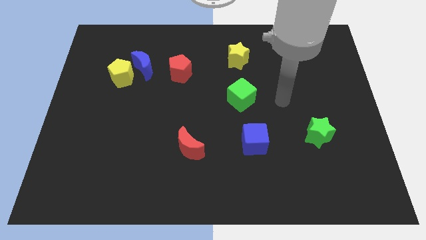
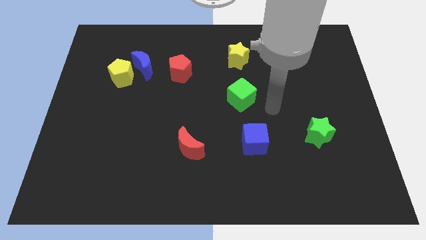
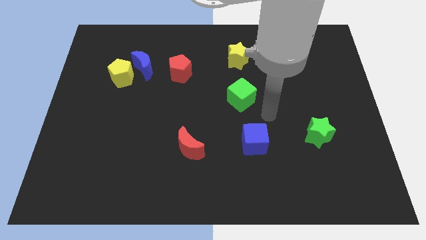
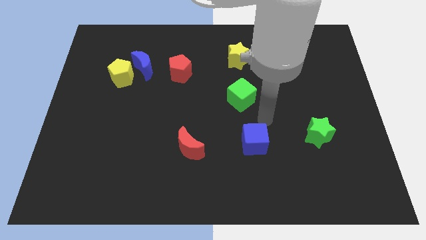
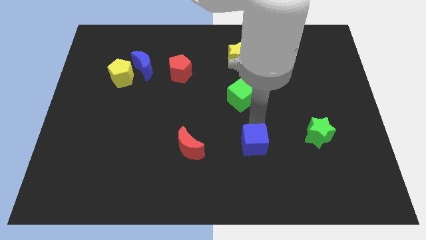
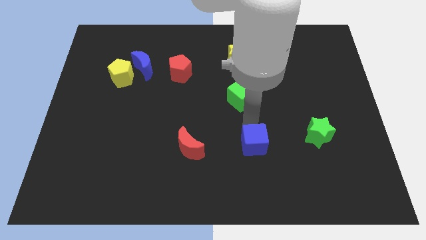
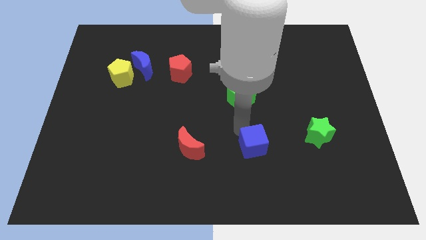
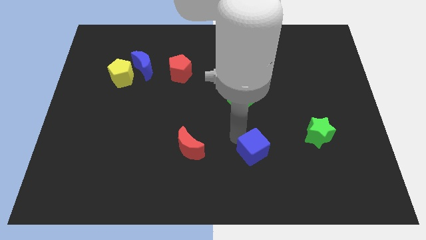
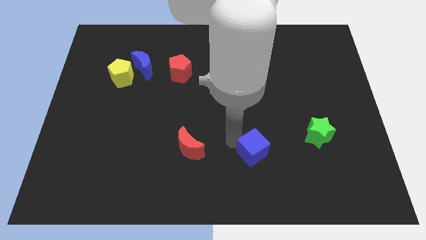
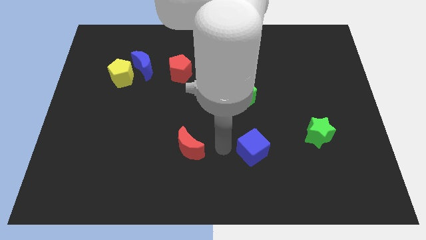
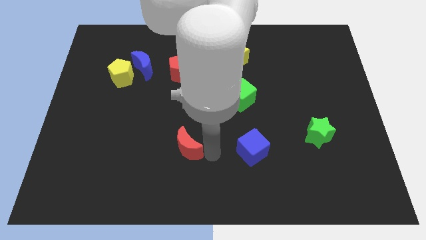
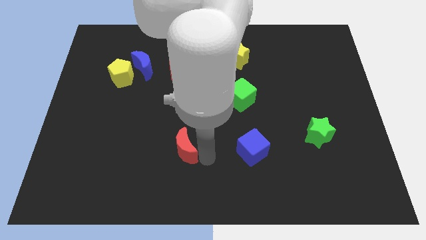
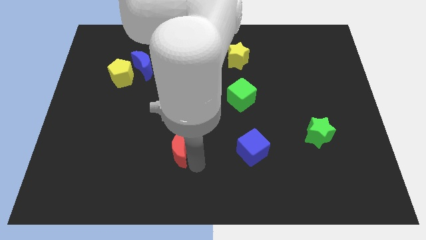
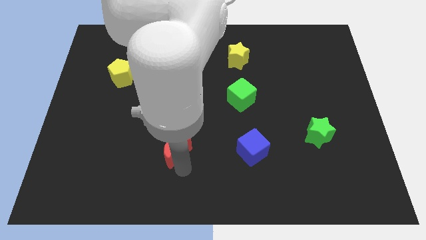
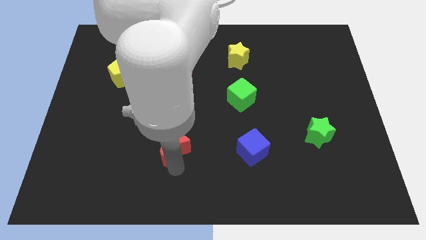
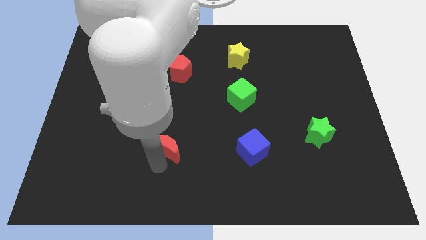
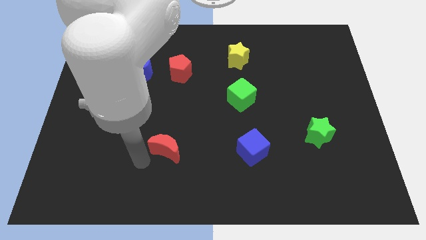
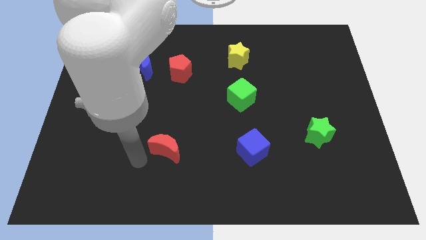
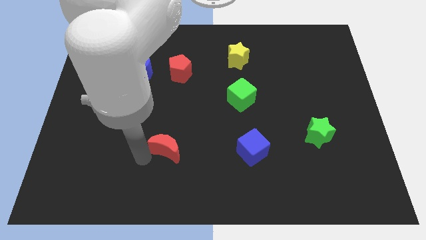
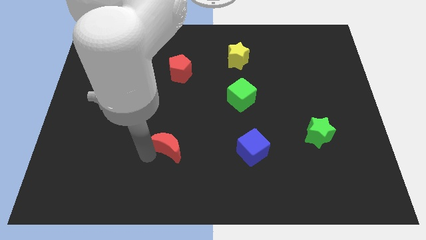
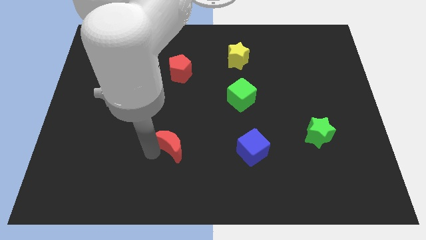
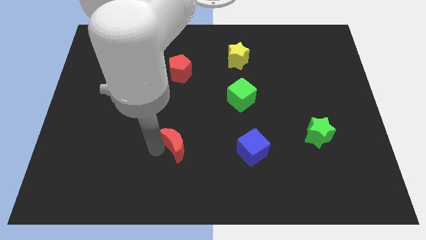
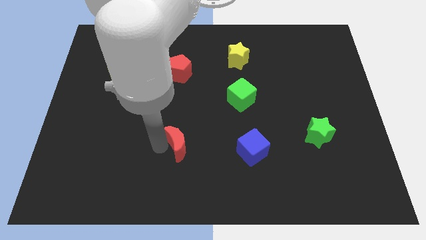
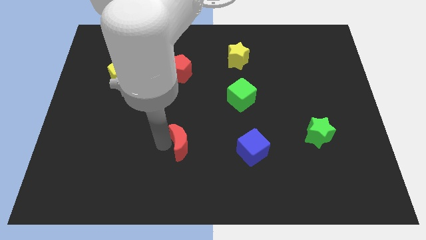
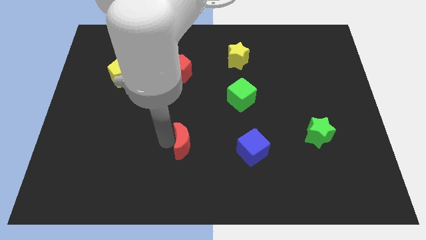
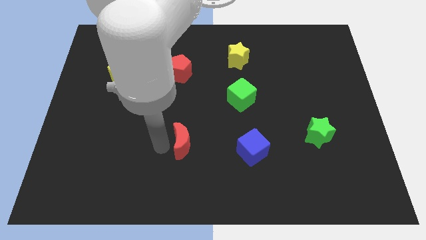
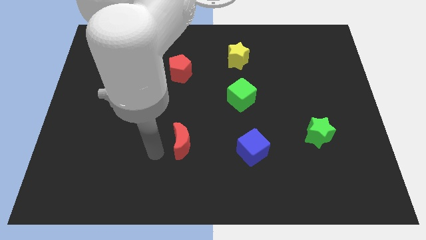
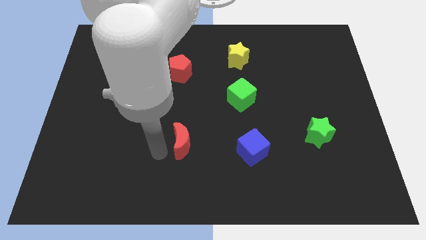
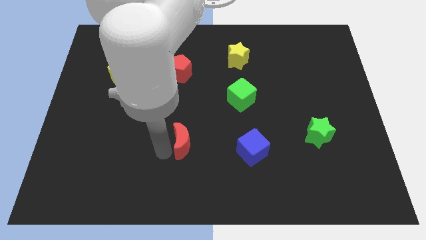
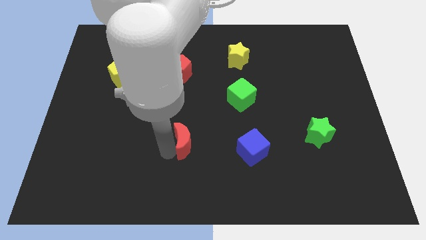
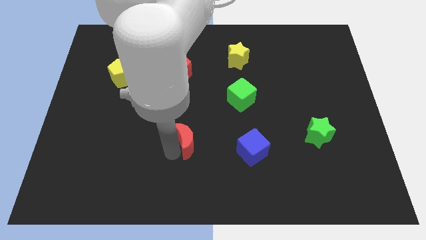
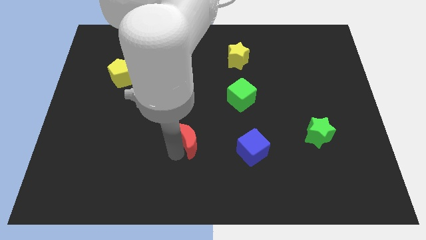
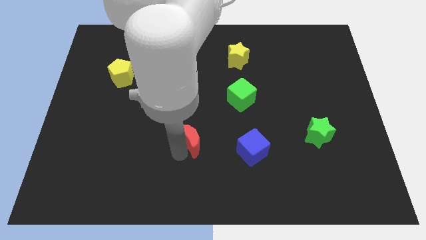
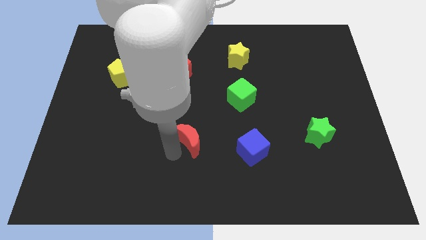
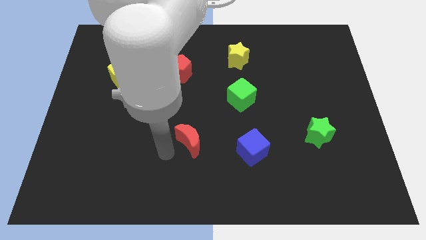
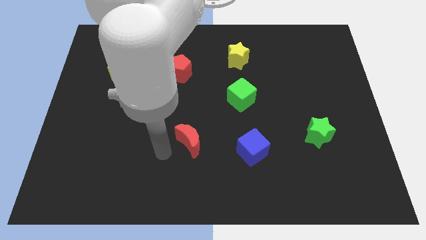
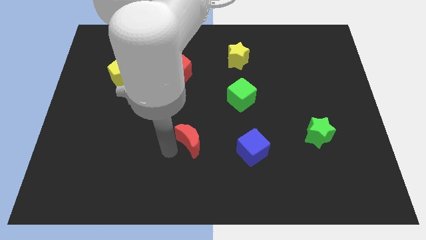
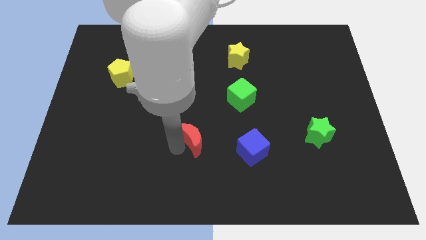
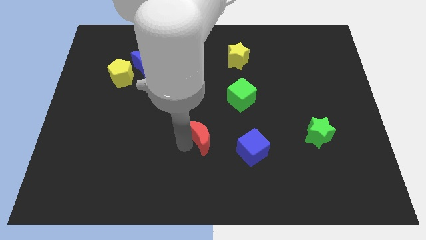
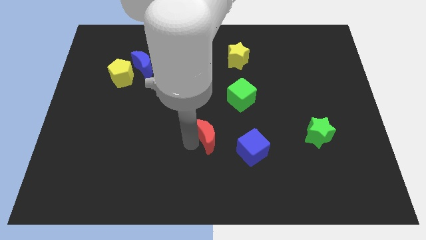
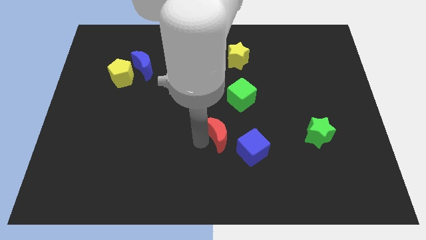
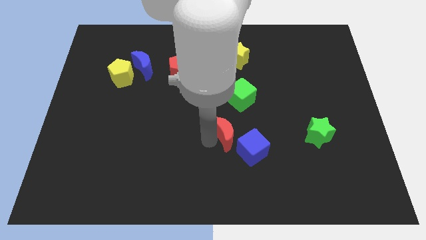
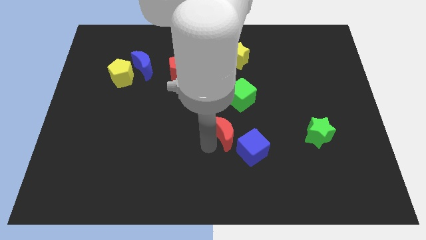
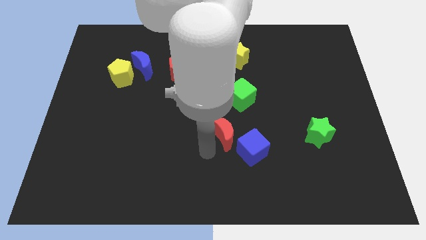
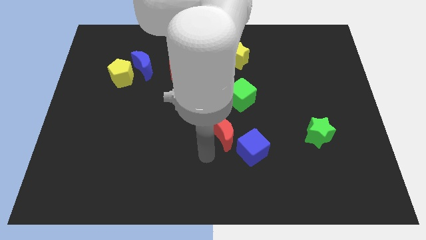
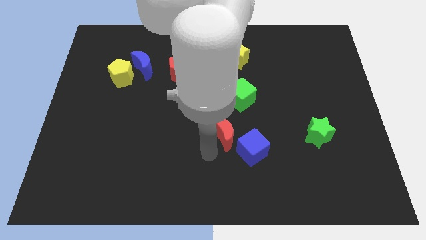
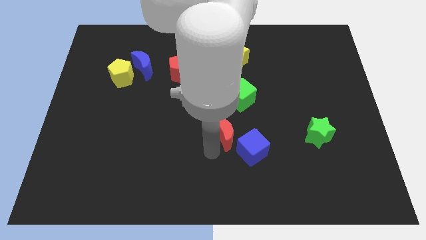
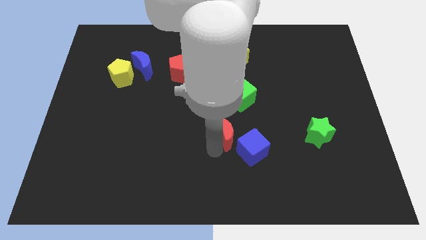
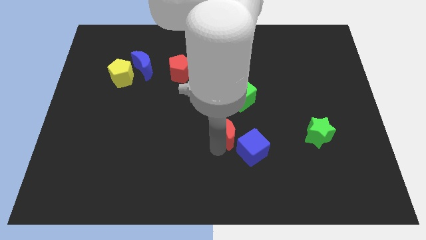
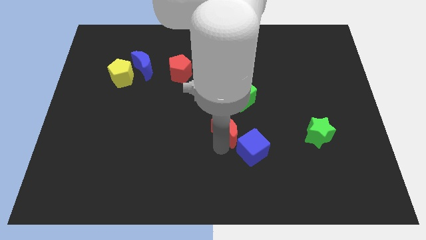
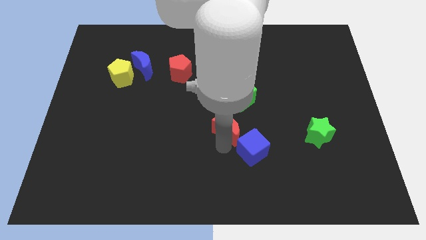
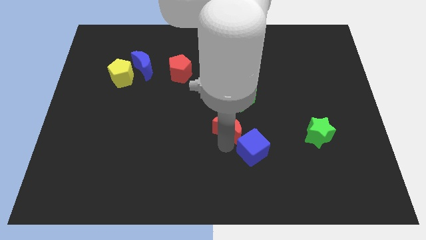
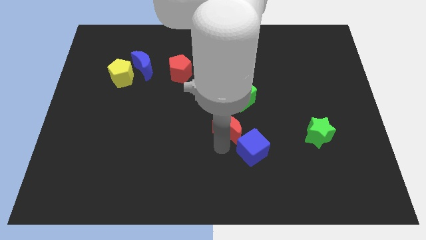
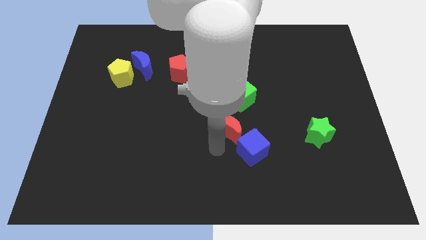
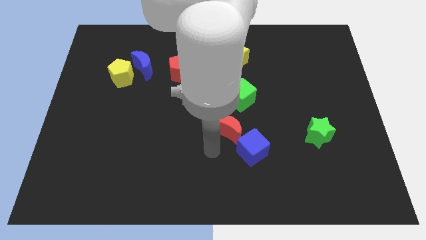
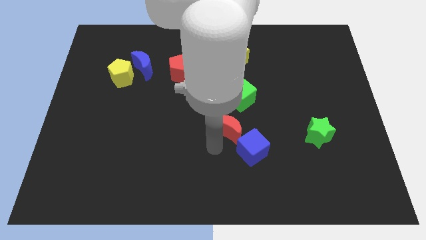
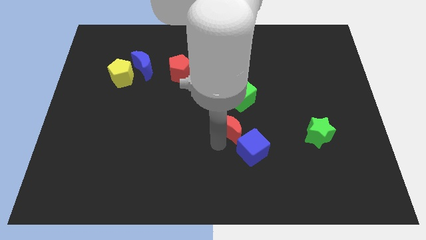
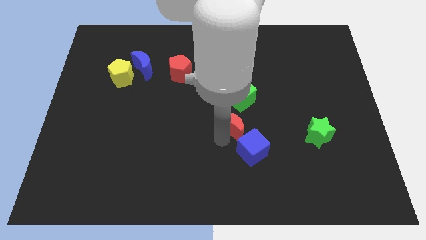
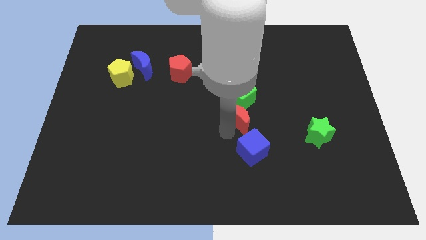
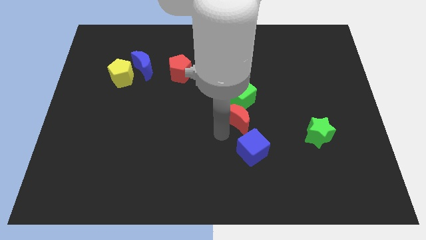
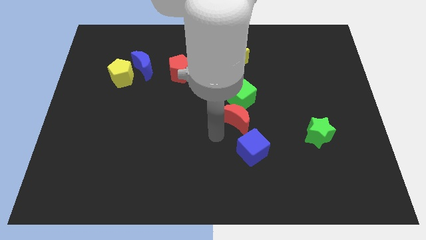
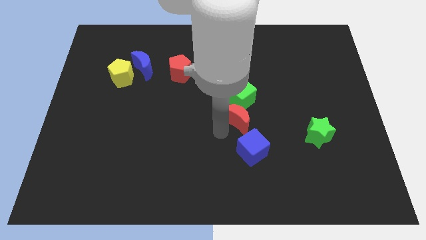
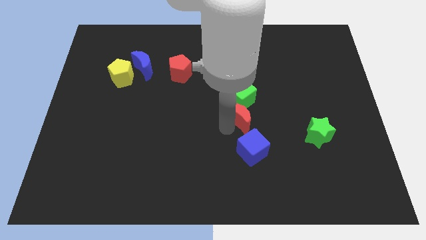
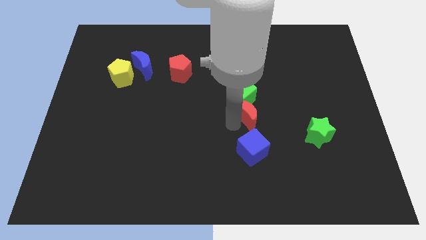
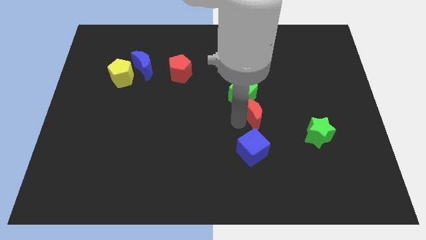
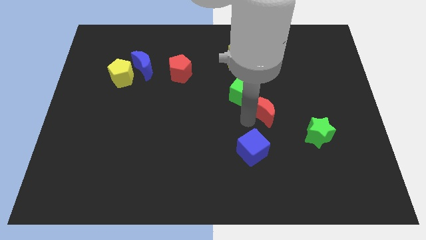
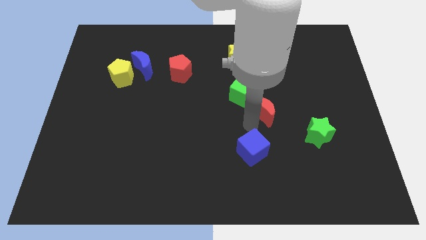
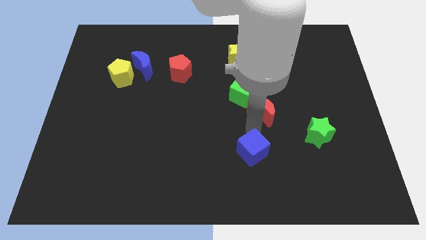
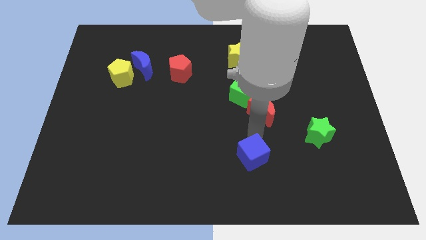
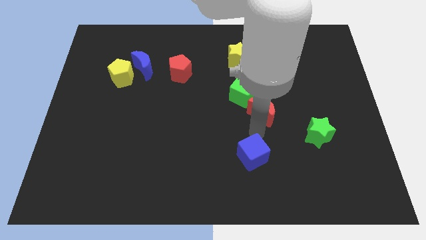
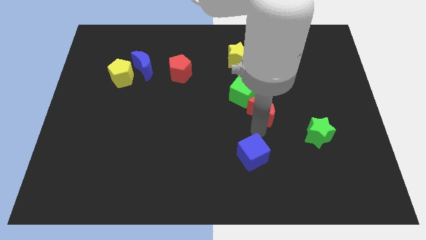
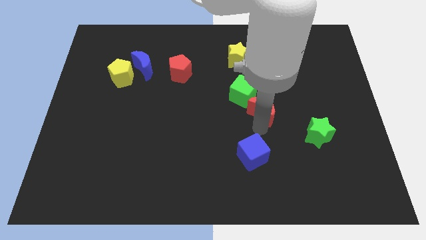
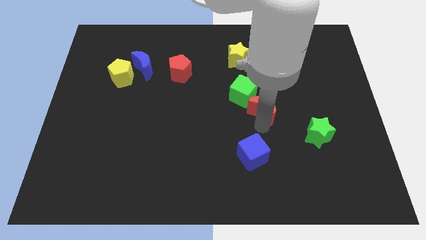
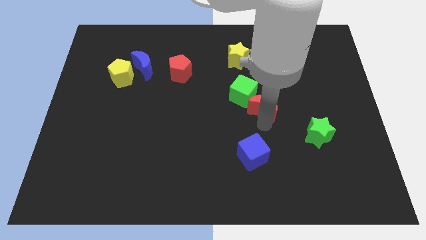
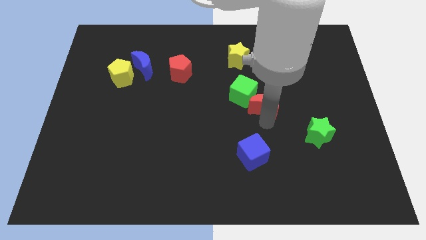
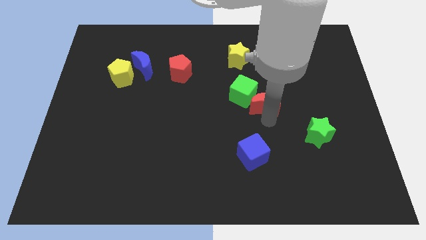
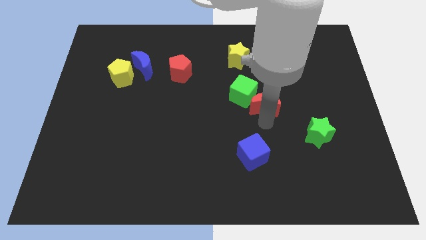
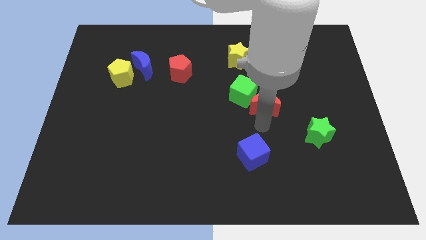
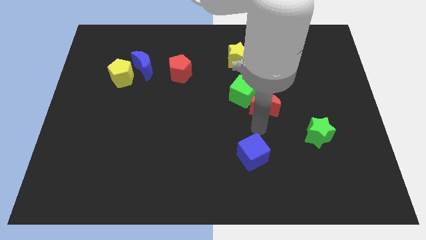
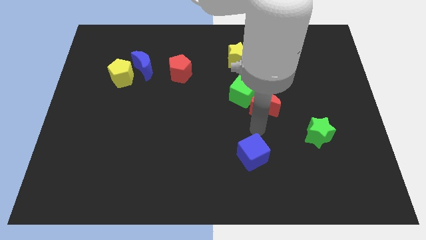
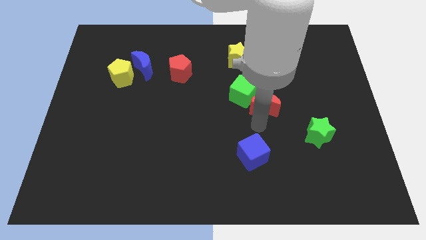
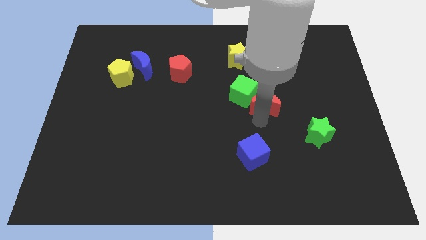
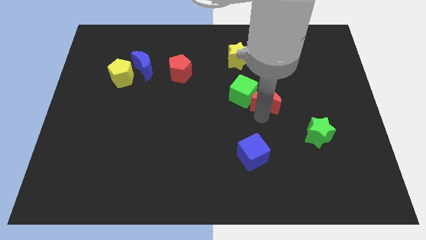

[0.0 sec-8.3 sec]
slide the red moon upwards and right
